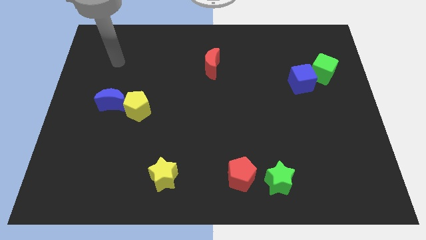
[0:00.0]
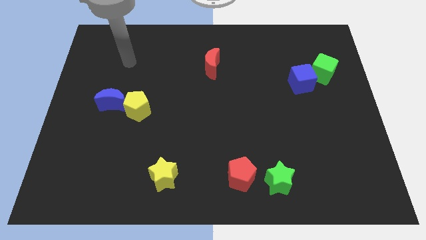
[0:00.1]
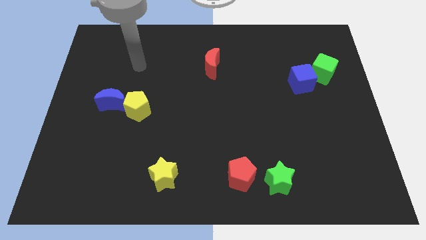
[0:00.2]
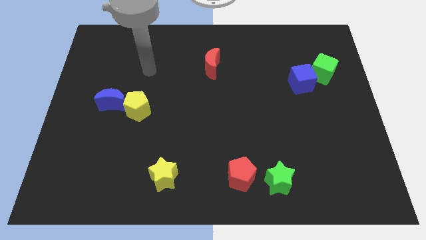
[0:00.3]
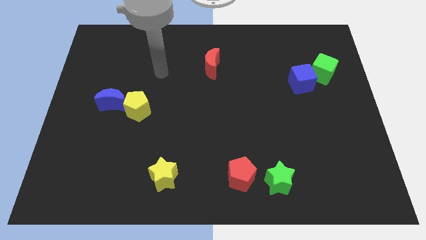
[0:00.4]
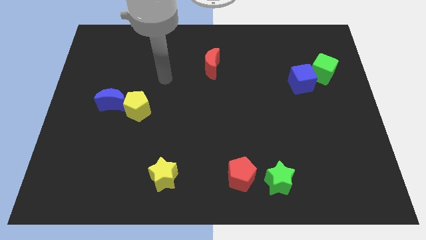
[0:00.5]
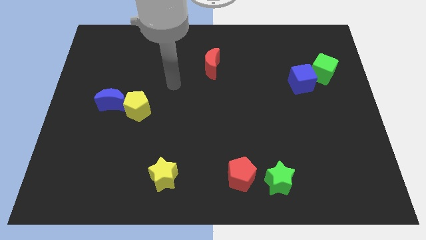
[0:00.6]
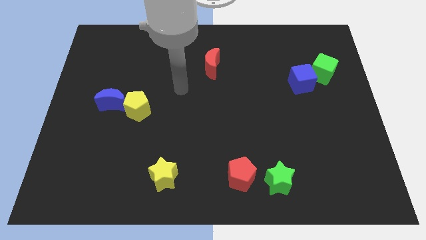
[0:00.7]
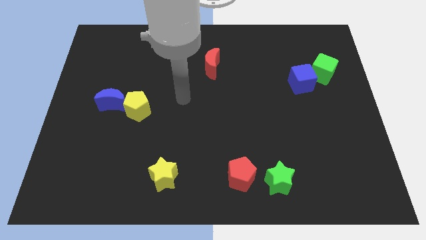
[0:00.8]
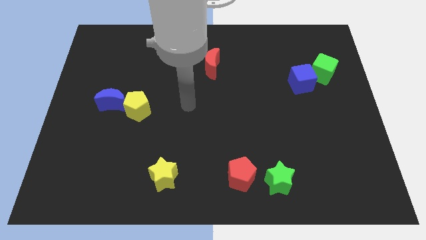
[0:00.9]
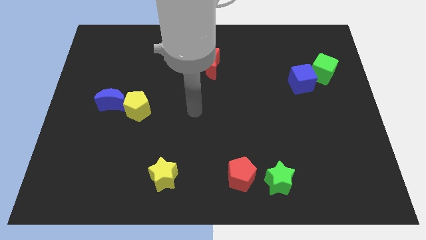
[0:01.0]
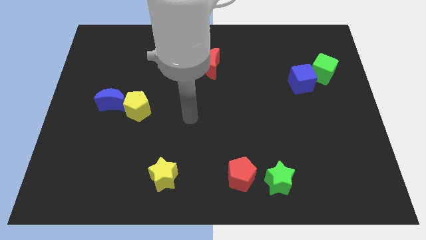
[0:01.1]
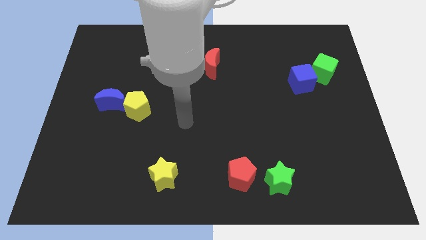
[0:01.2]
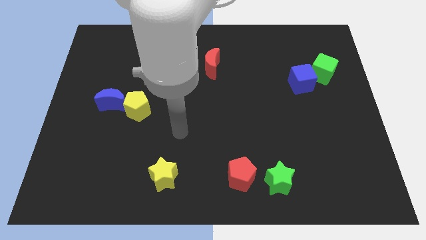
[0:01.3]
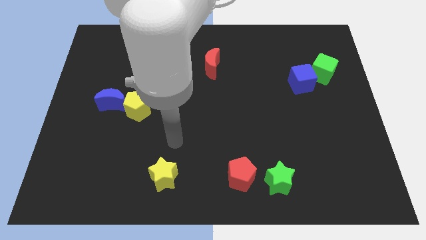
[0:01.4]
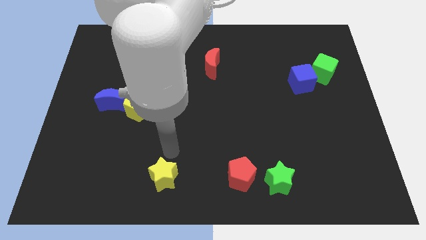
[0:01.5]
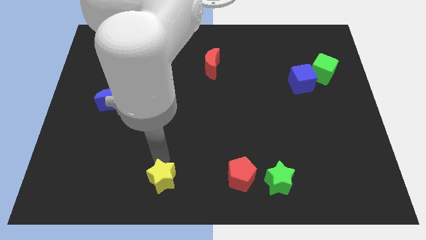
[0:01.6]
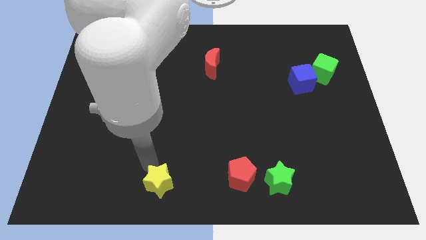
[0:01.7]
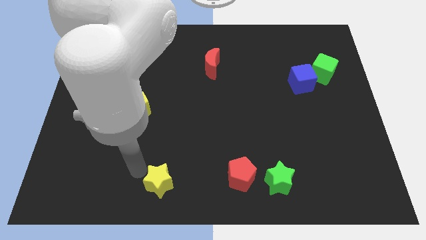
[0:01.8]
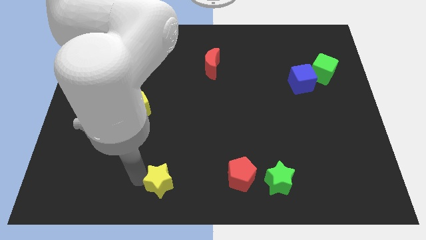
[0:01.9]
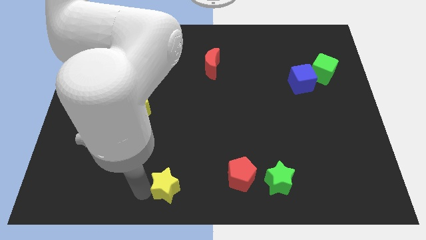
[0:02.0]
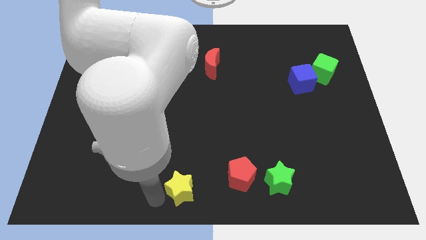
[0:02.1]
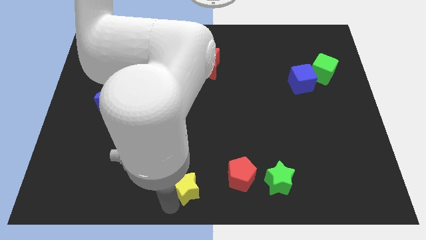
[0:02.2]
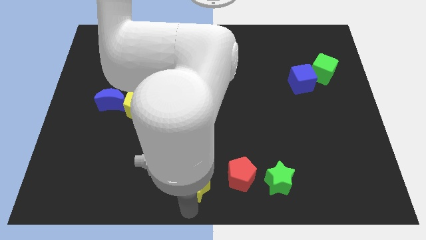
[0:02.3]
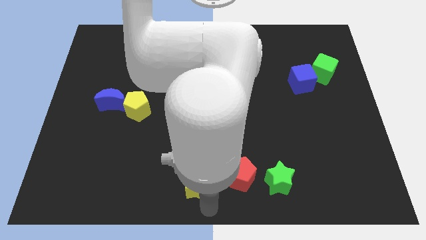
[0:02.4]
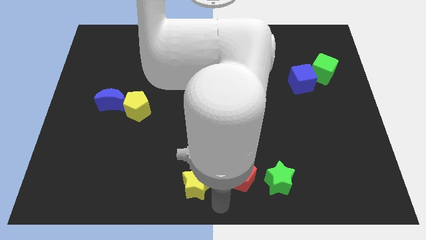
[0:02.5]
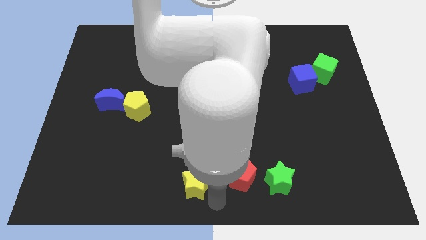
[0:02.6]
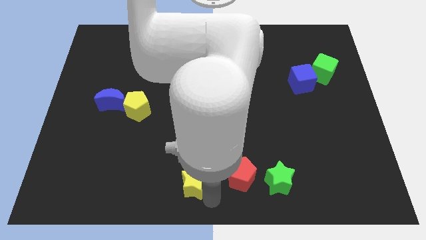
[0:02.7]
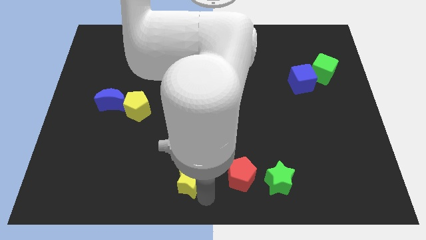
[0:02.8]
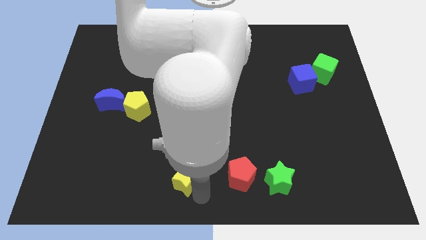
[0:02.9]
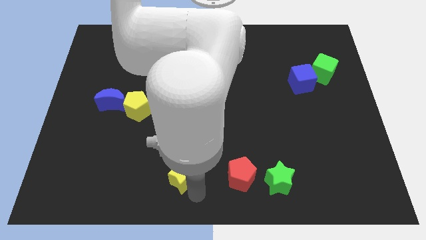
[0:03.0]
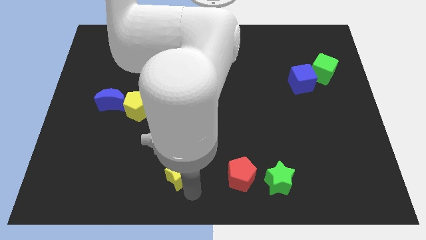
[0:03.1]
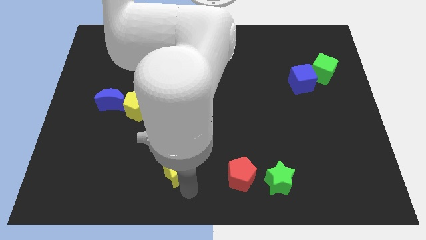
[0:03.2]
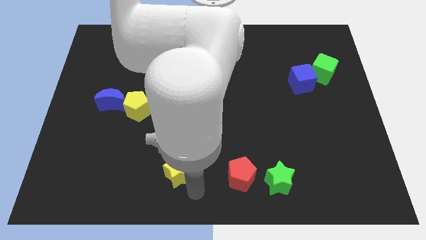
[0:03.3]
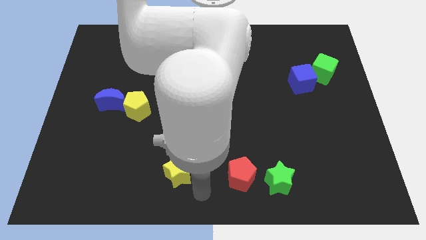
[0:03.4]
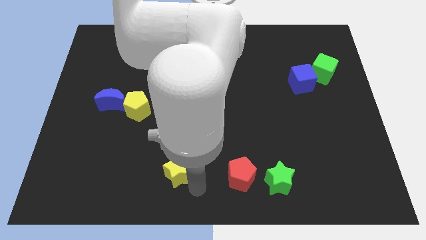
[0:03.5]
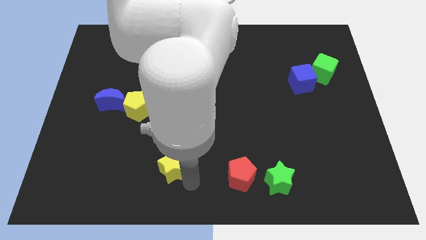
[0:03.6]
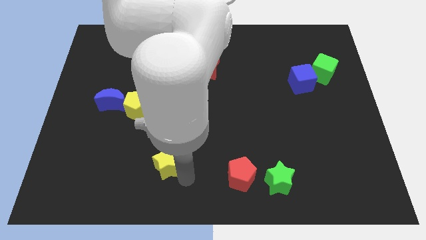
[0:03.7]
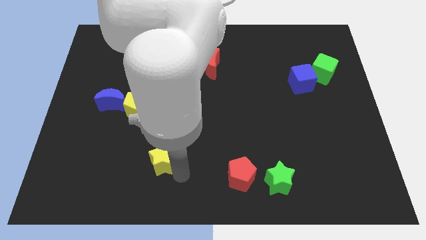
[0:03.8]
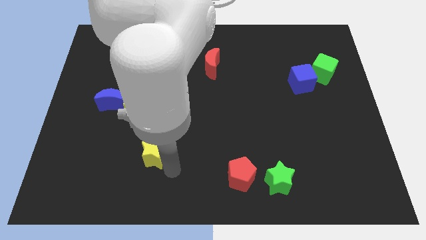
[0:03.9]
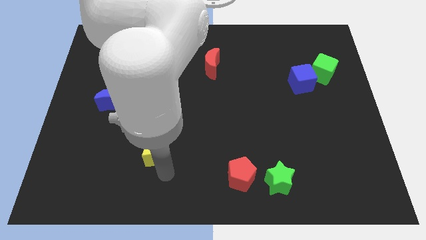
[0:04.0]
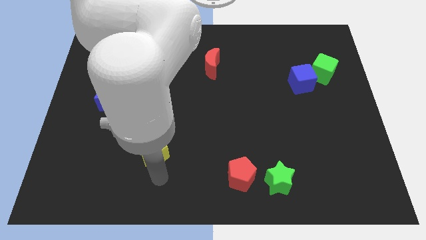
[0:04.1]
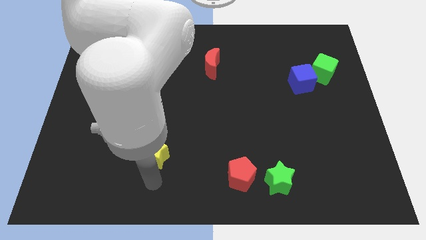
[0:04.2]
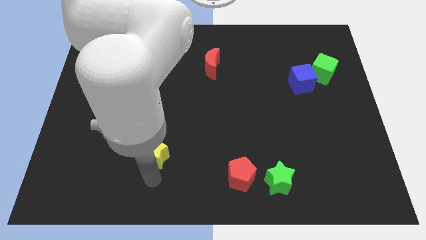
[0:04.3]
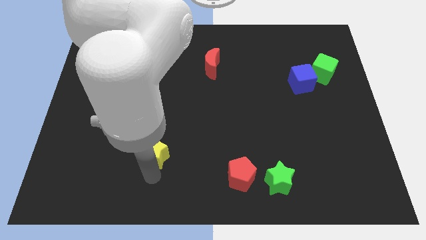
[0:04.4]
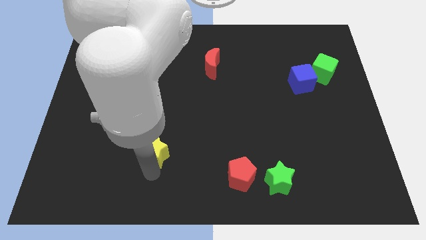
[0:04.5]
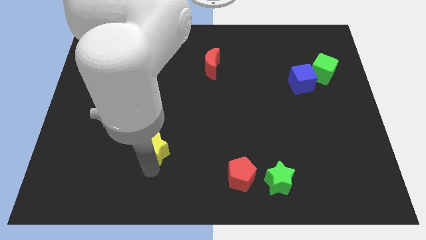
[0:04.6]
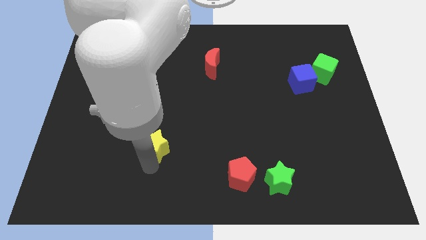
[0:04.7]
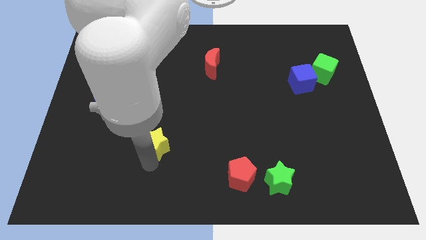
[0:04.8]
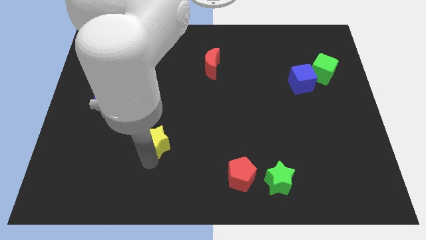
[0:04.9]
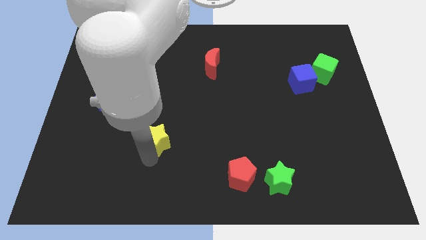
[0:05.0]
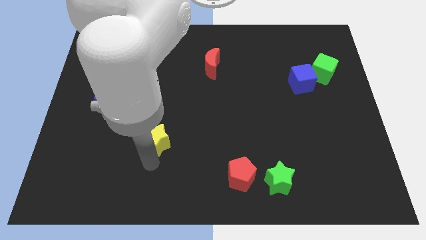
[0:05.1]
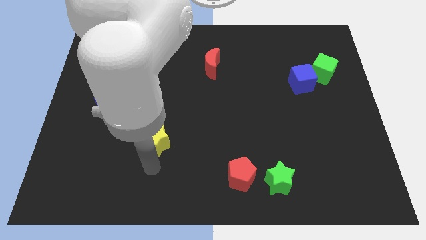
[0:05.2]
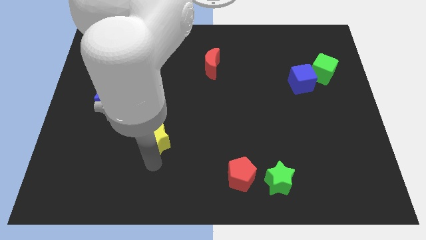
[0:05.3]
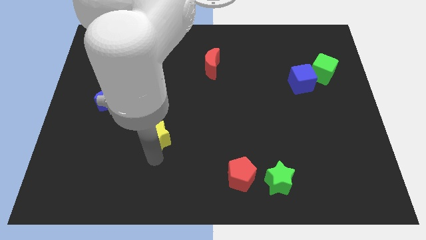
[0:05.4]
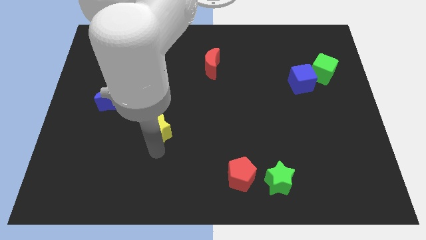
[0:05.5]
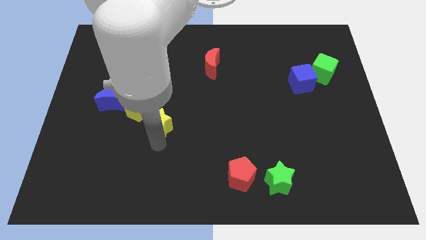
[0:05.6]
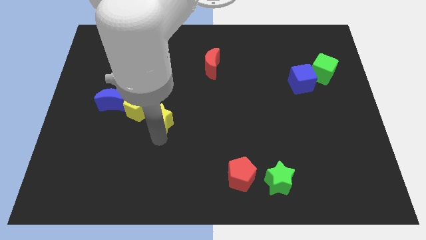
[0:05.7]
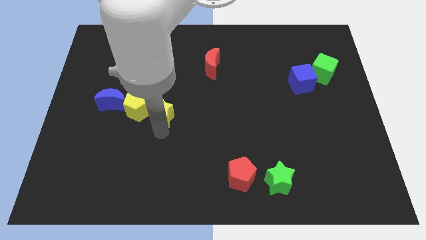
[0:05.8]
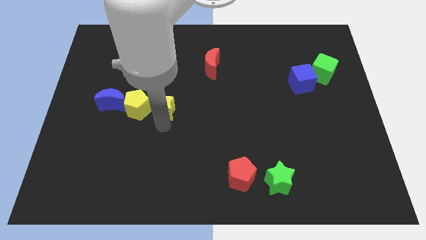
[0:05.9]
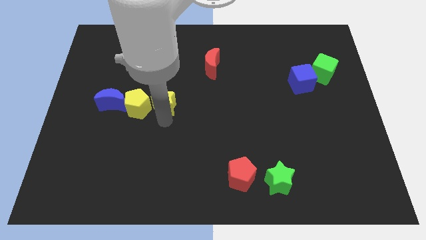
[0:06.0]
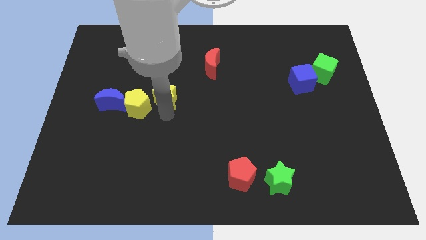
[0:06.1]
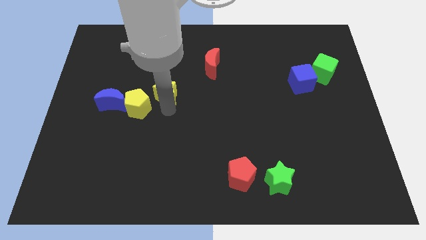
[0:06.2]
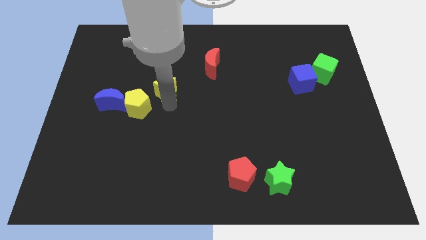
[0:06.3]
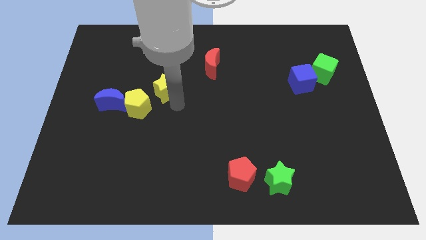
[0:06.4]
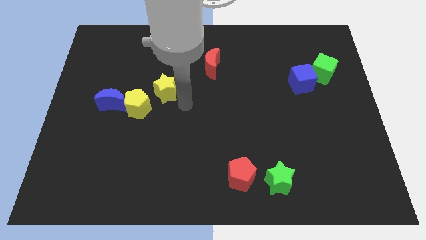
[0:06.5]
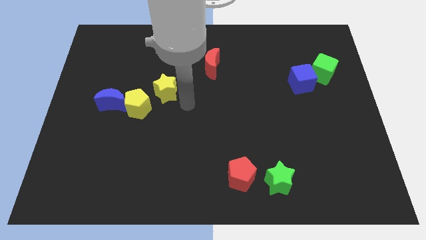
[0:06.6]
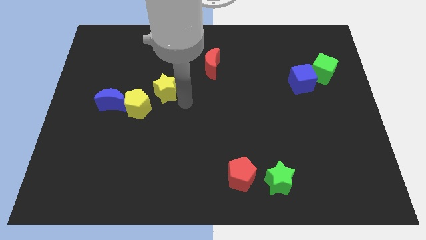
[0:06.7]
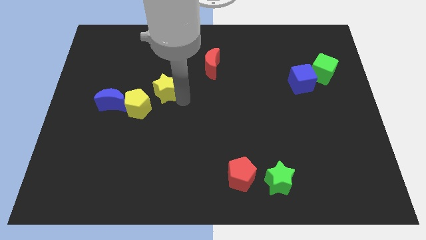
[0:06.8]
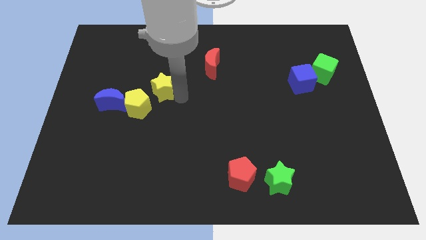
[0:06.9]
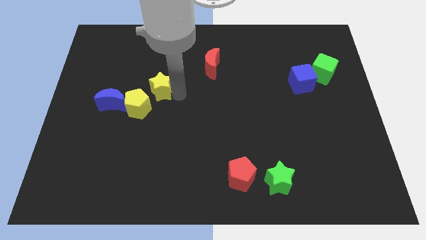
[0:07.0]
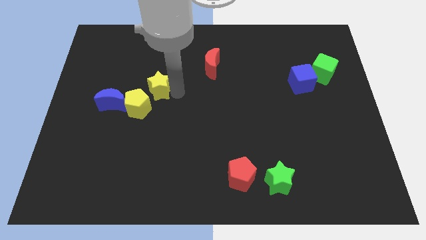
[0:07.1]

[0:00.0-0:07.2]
put the yellow star to the top side of the yellow pentagon

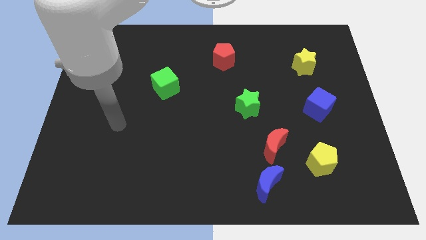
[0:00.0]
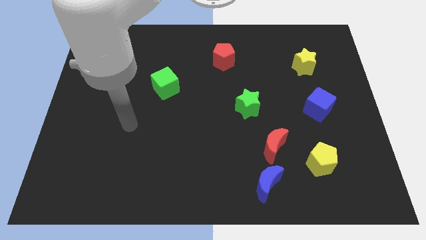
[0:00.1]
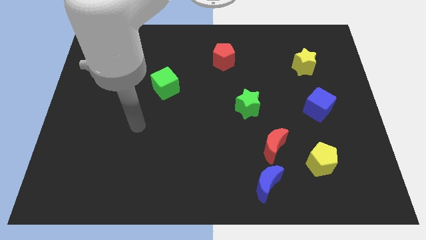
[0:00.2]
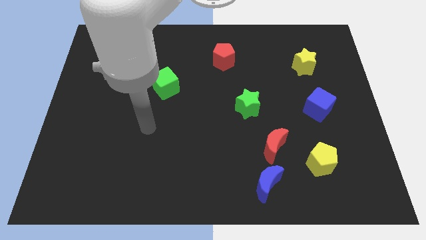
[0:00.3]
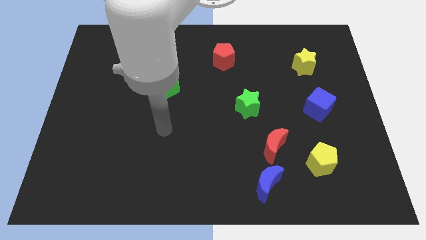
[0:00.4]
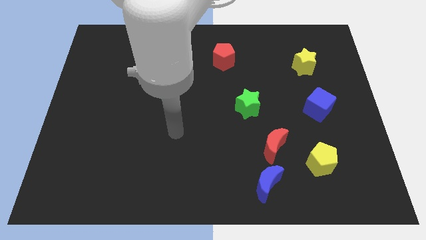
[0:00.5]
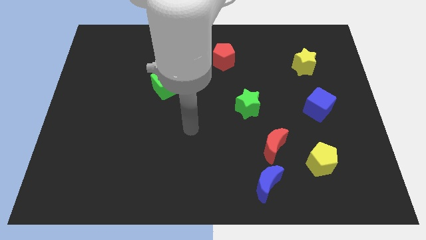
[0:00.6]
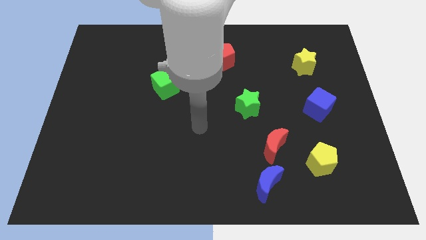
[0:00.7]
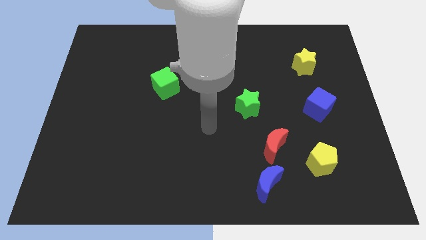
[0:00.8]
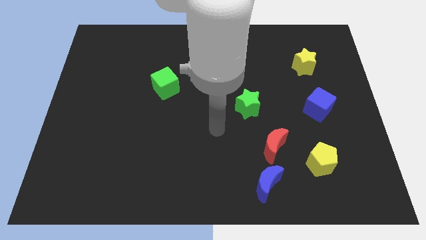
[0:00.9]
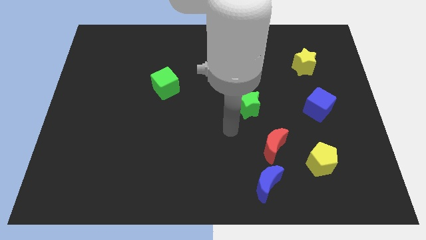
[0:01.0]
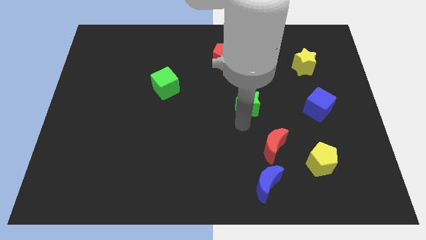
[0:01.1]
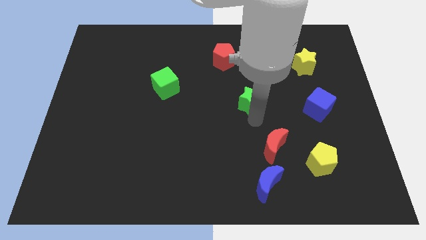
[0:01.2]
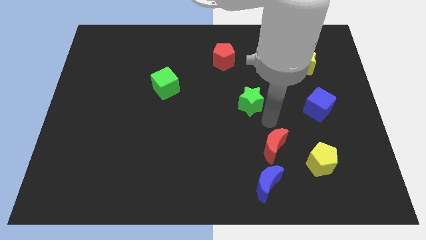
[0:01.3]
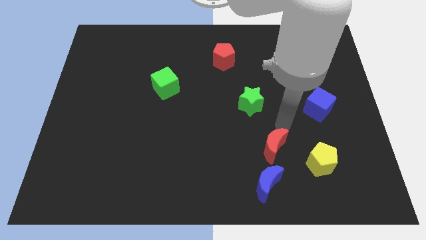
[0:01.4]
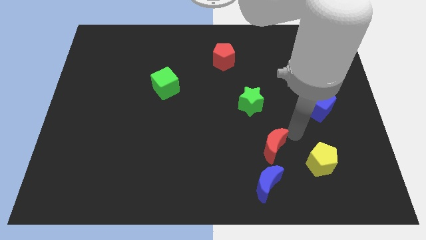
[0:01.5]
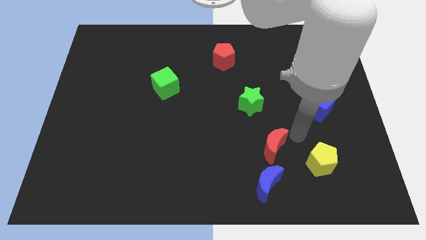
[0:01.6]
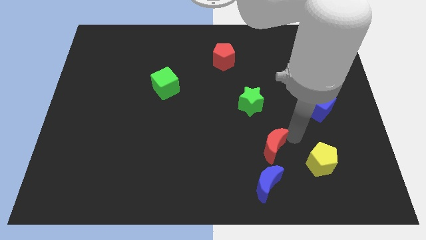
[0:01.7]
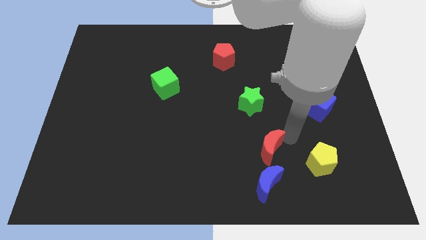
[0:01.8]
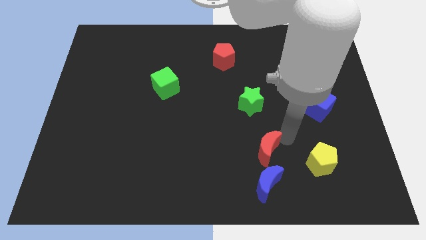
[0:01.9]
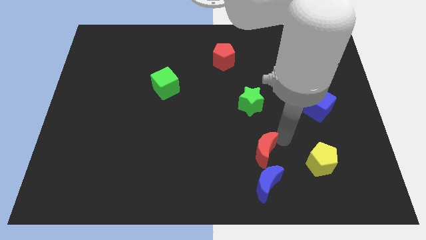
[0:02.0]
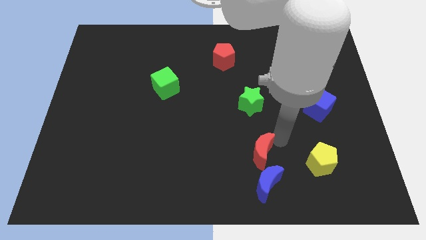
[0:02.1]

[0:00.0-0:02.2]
push the red moon diagonally up and to the left of the blue moon
